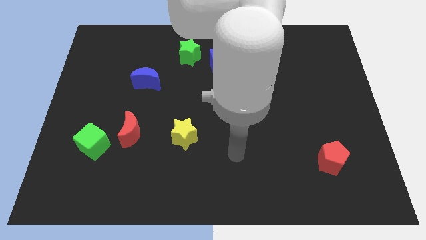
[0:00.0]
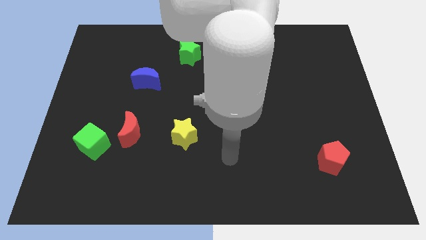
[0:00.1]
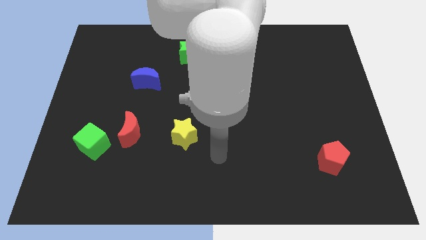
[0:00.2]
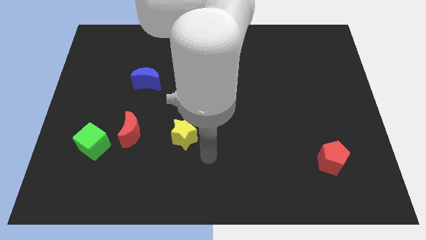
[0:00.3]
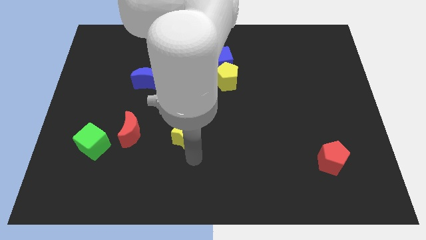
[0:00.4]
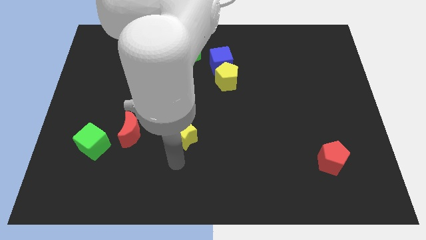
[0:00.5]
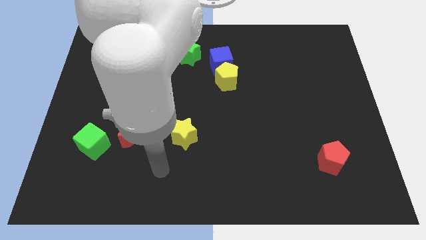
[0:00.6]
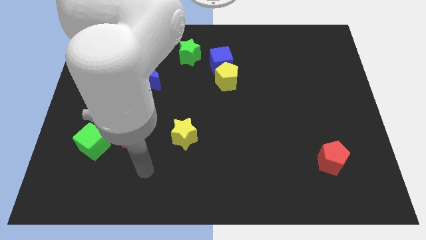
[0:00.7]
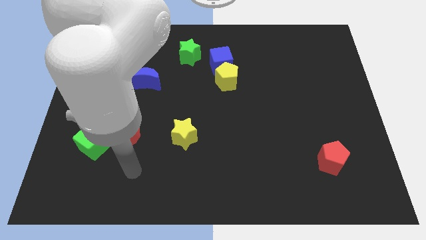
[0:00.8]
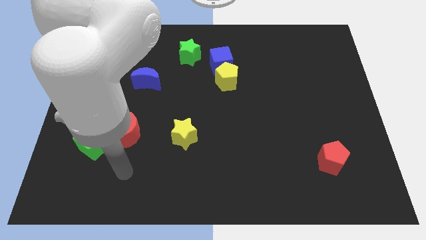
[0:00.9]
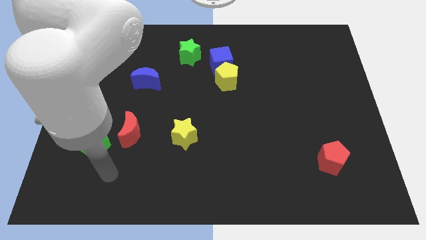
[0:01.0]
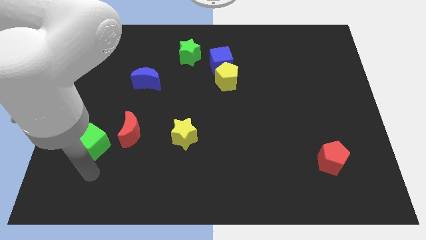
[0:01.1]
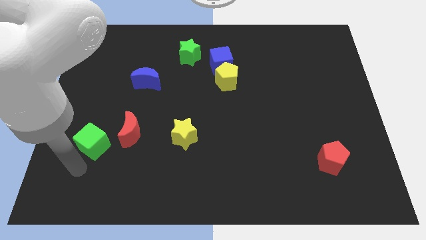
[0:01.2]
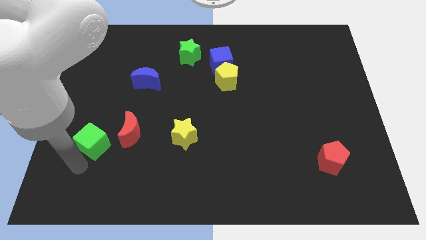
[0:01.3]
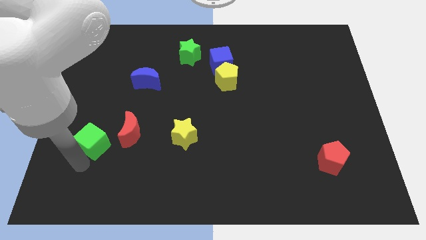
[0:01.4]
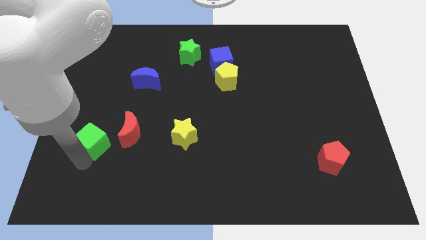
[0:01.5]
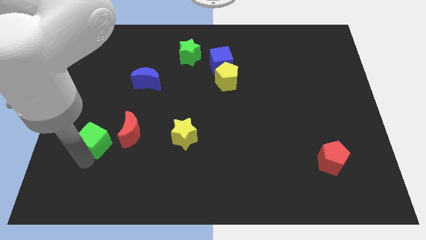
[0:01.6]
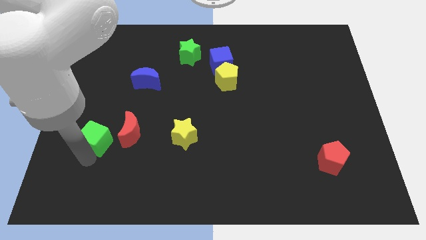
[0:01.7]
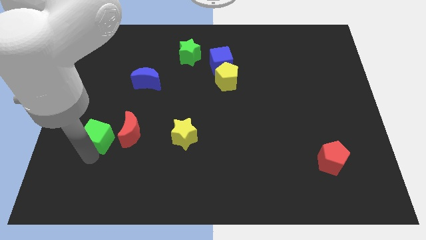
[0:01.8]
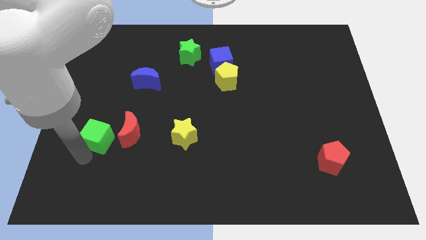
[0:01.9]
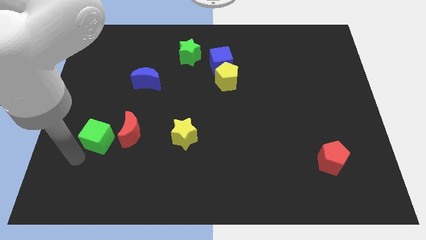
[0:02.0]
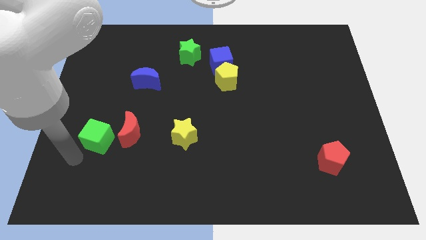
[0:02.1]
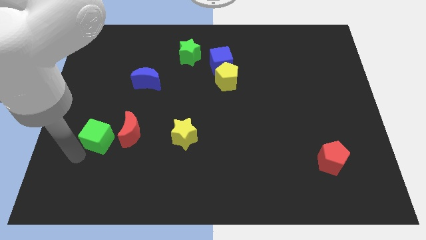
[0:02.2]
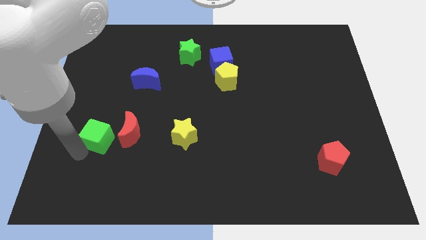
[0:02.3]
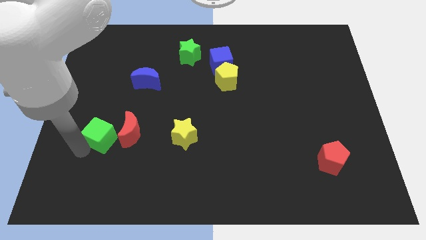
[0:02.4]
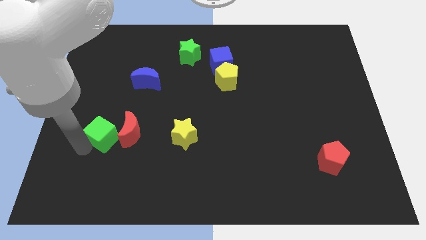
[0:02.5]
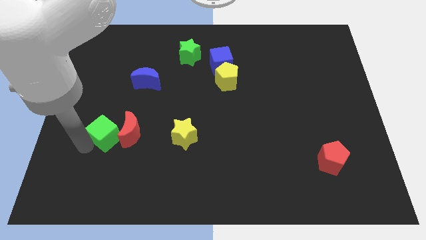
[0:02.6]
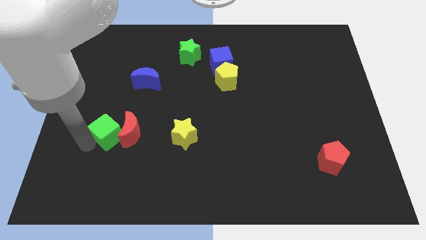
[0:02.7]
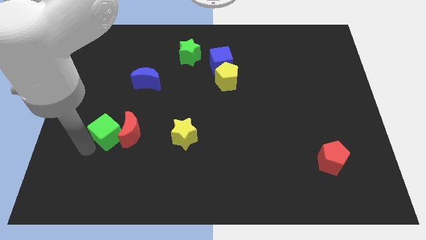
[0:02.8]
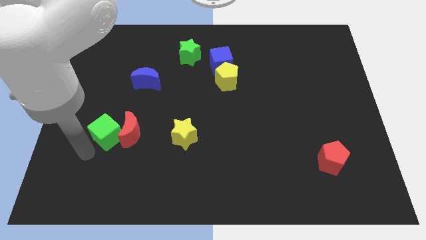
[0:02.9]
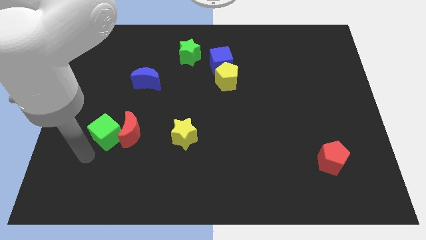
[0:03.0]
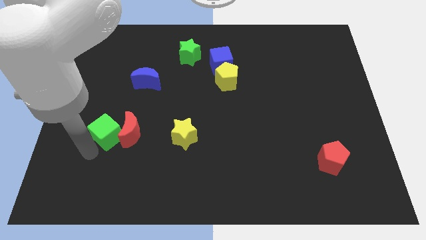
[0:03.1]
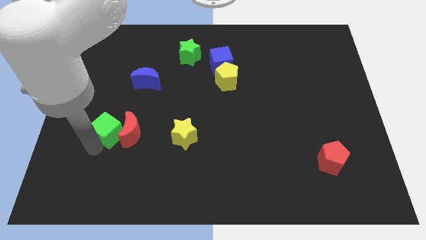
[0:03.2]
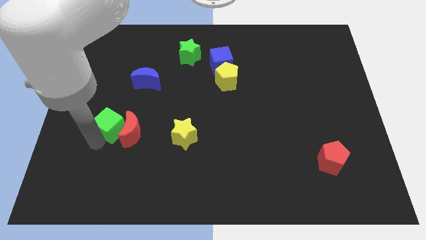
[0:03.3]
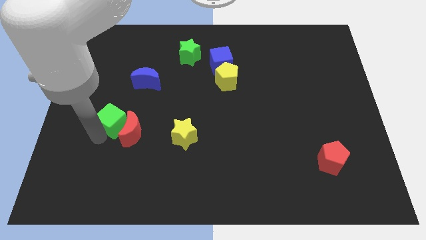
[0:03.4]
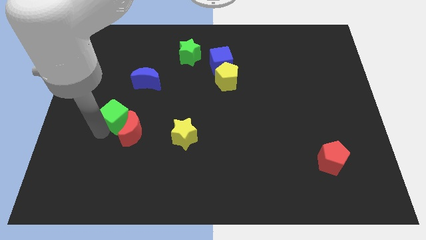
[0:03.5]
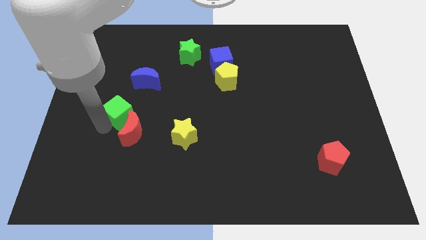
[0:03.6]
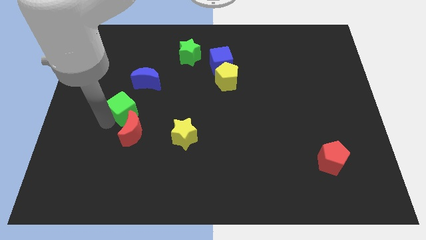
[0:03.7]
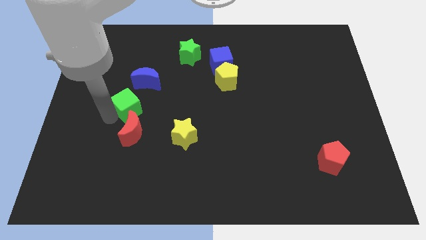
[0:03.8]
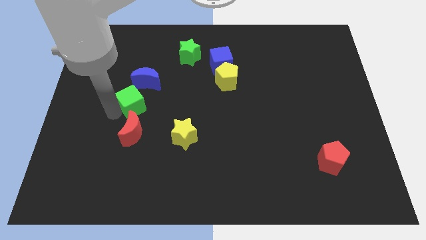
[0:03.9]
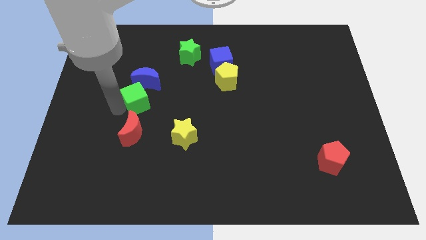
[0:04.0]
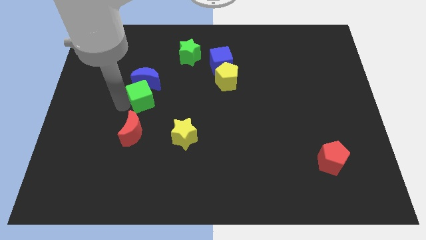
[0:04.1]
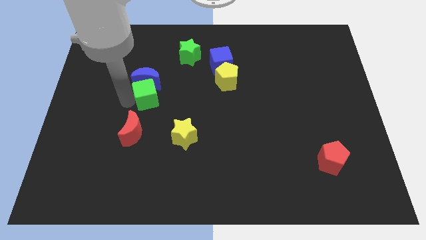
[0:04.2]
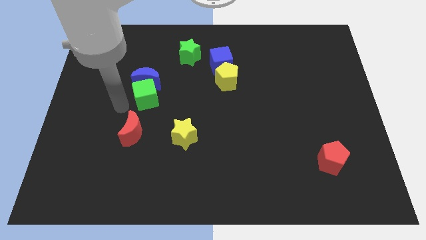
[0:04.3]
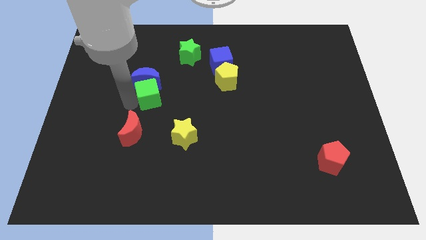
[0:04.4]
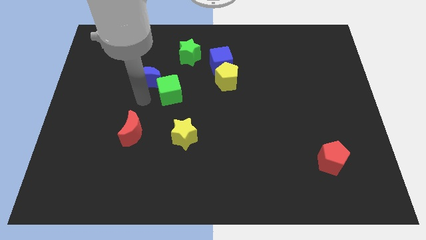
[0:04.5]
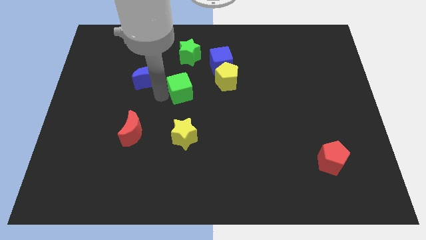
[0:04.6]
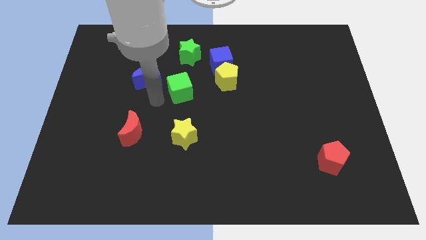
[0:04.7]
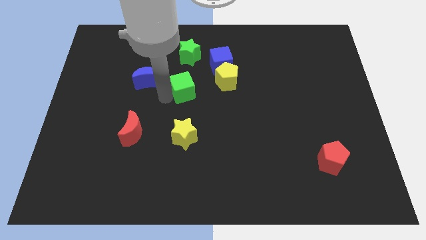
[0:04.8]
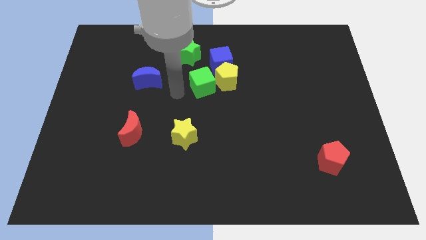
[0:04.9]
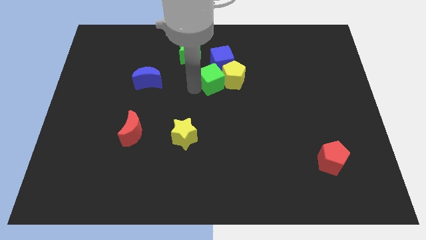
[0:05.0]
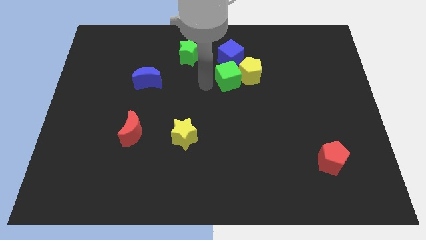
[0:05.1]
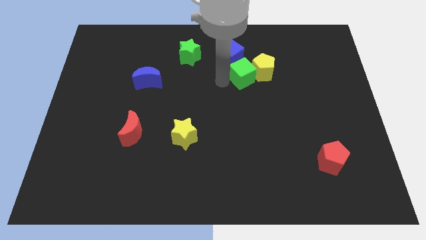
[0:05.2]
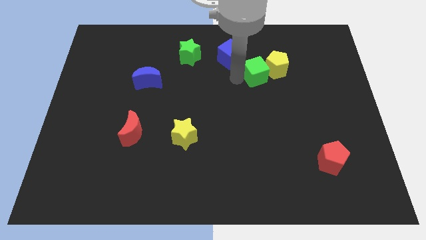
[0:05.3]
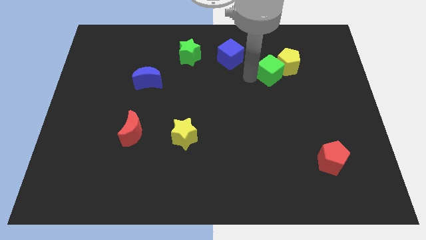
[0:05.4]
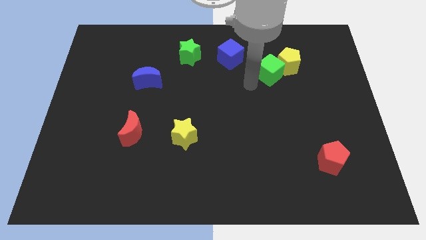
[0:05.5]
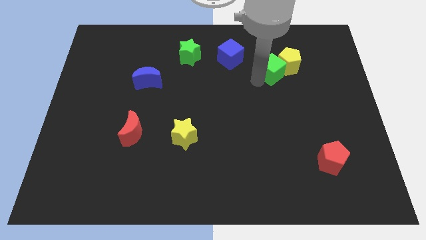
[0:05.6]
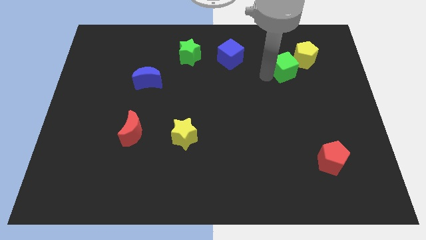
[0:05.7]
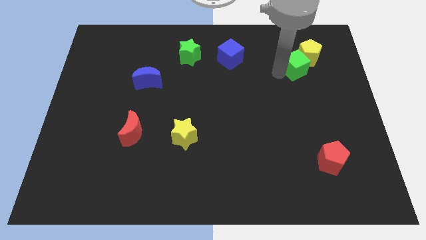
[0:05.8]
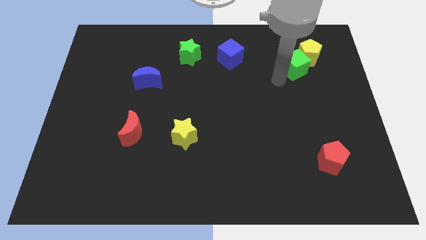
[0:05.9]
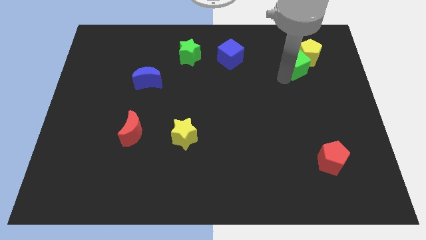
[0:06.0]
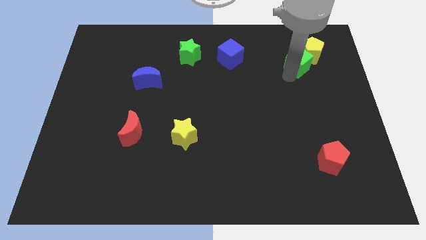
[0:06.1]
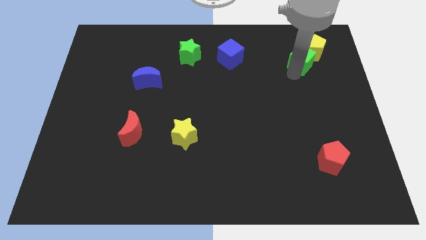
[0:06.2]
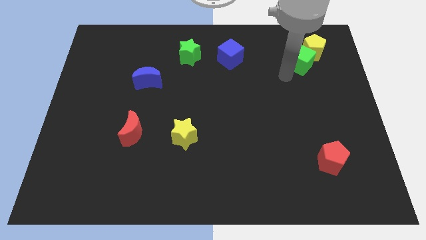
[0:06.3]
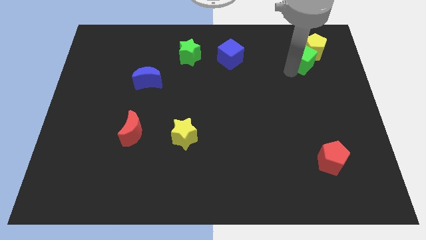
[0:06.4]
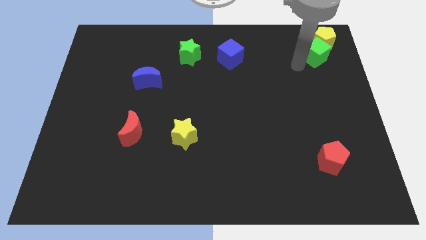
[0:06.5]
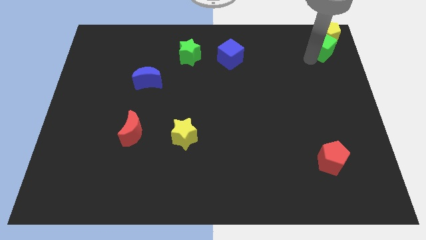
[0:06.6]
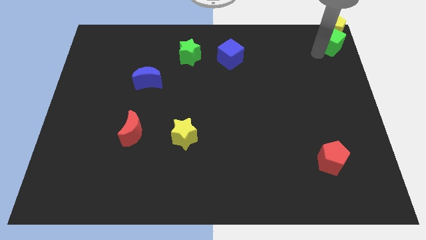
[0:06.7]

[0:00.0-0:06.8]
put the green cube to the top right corner
